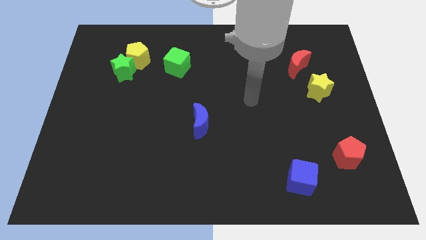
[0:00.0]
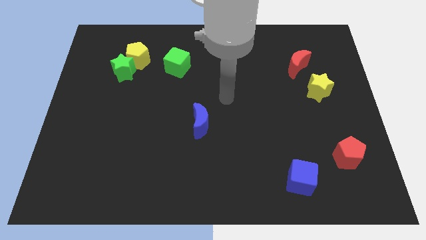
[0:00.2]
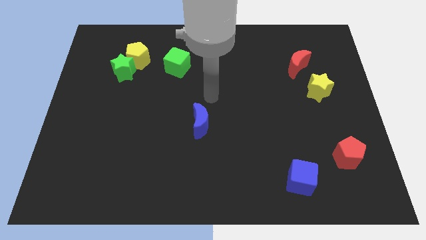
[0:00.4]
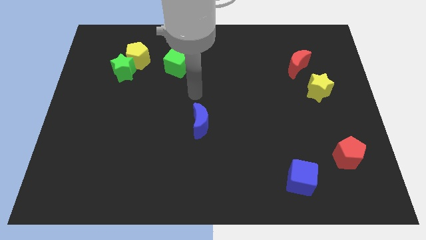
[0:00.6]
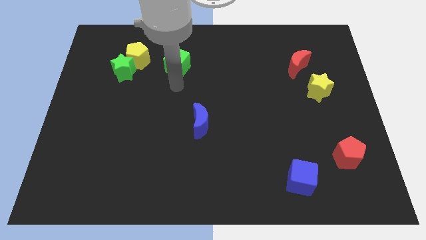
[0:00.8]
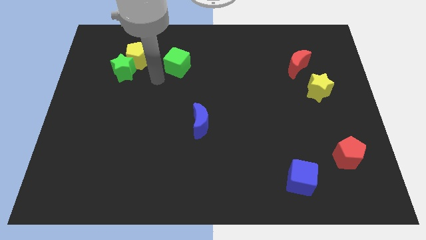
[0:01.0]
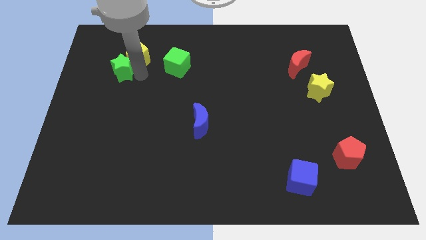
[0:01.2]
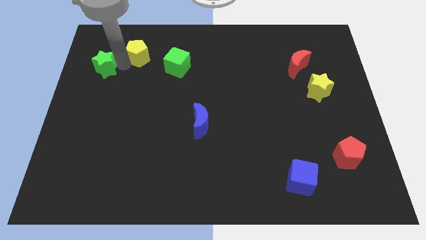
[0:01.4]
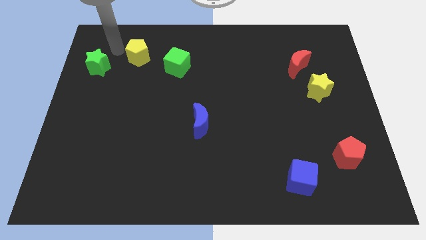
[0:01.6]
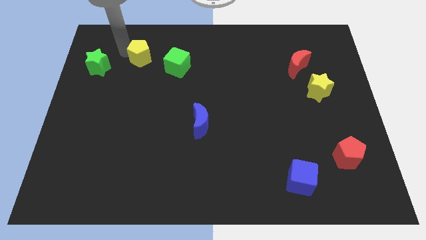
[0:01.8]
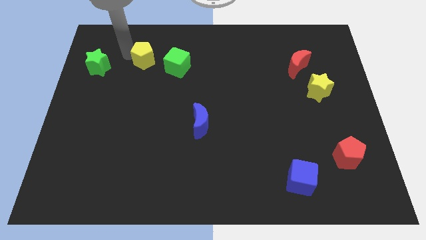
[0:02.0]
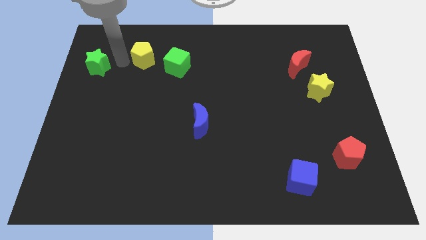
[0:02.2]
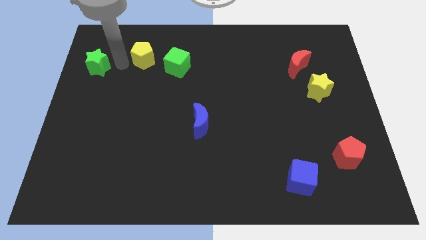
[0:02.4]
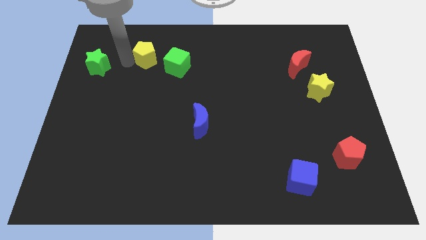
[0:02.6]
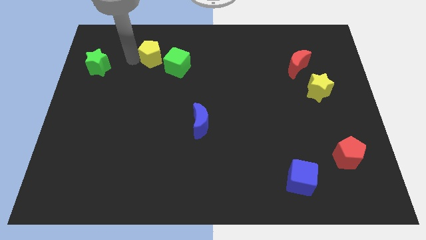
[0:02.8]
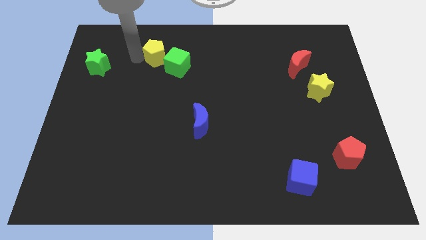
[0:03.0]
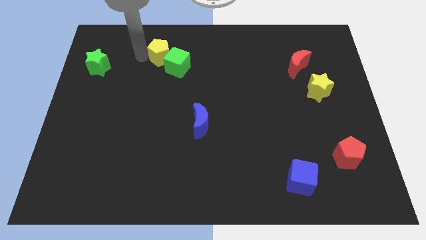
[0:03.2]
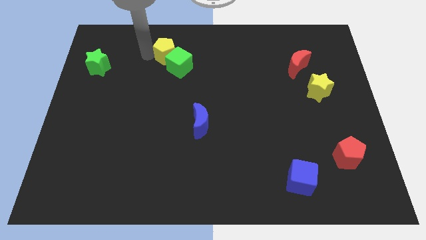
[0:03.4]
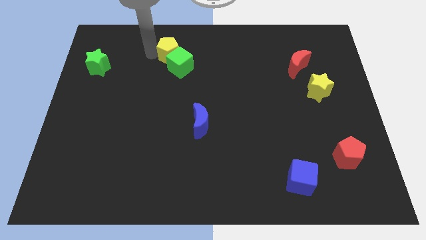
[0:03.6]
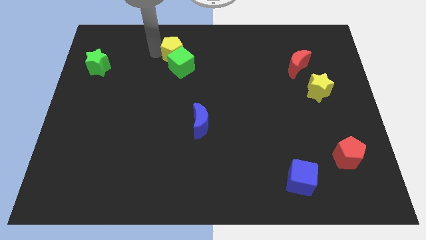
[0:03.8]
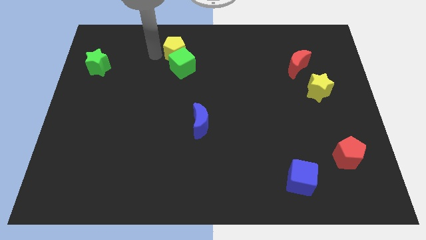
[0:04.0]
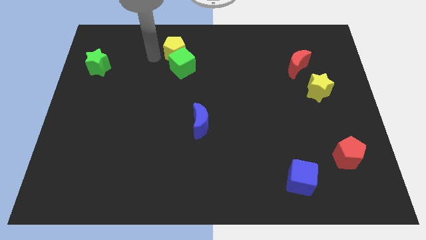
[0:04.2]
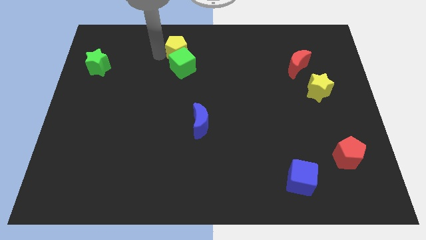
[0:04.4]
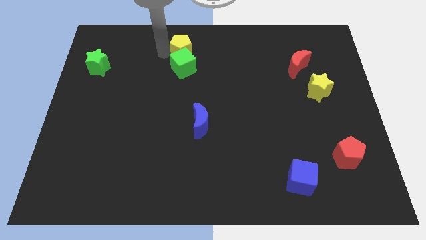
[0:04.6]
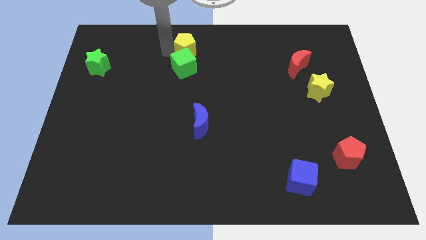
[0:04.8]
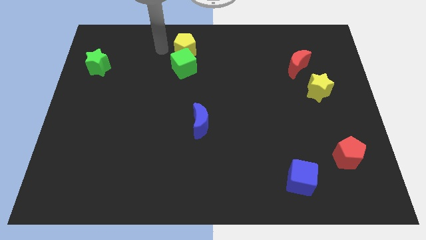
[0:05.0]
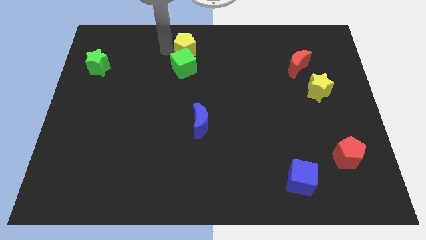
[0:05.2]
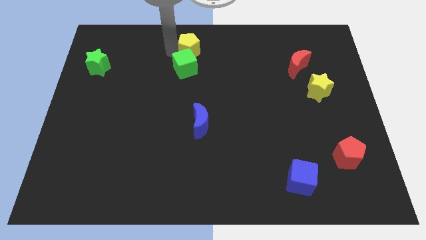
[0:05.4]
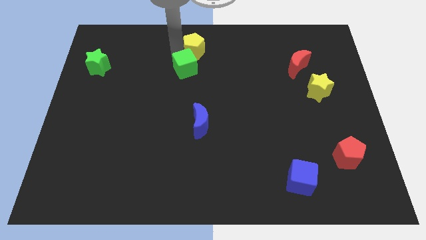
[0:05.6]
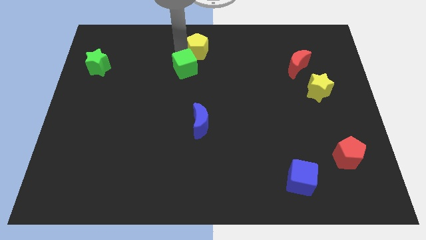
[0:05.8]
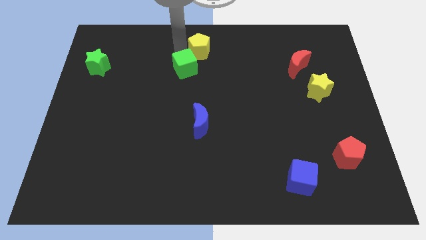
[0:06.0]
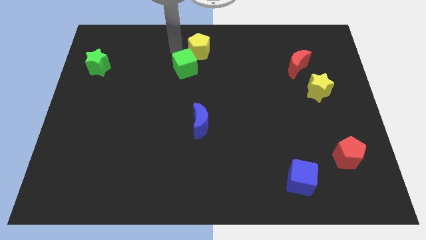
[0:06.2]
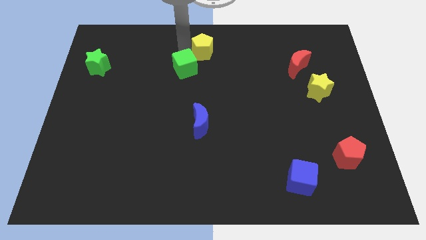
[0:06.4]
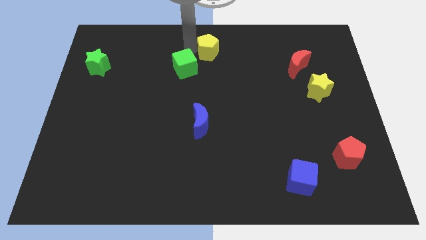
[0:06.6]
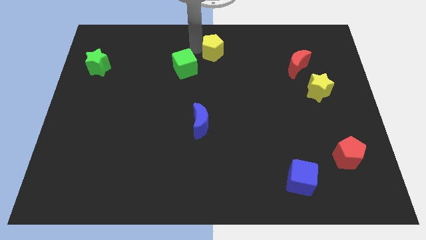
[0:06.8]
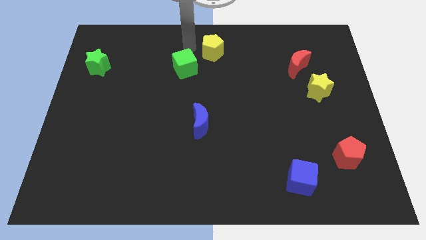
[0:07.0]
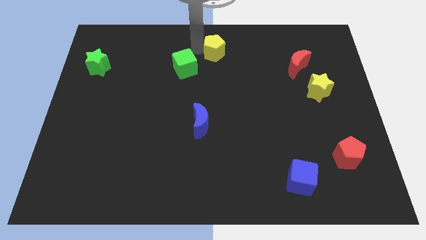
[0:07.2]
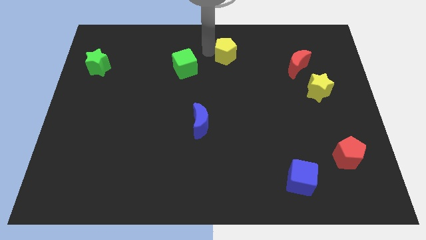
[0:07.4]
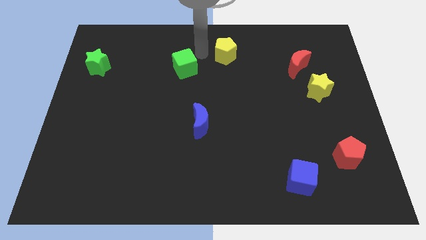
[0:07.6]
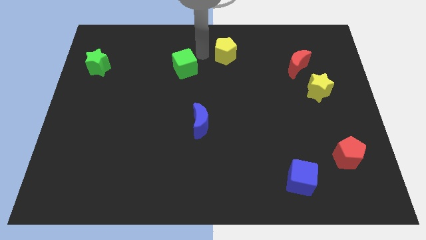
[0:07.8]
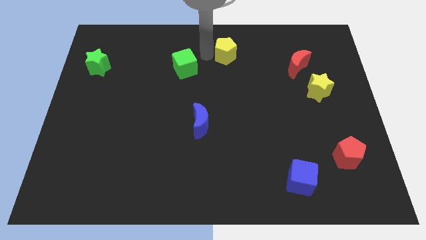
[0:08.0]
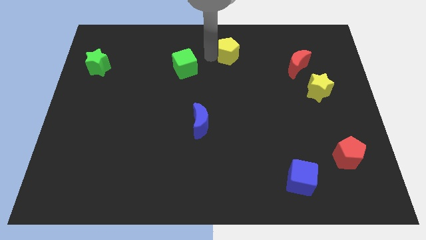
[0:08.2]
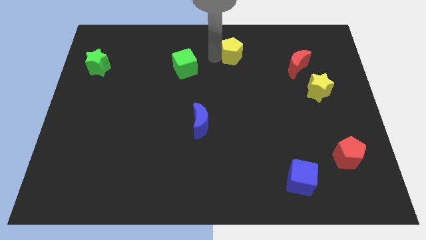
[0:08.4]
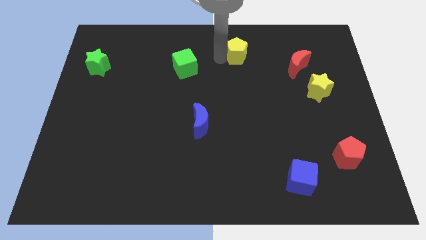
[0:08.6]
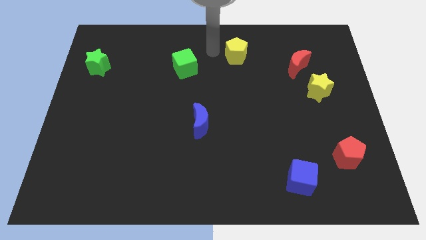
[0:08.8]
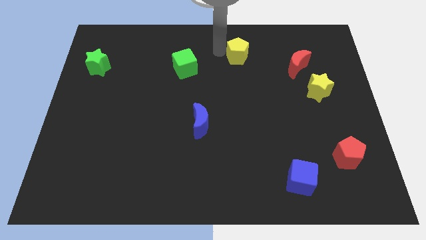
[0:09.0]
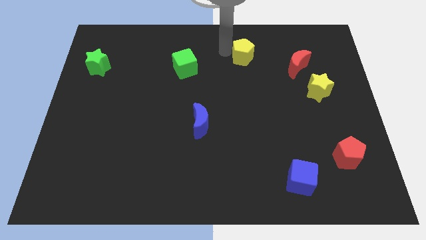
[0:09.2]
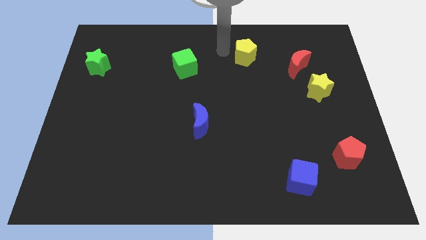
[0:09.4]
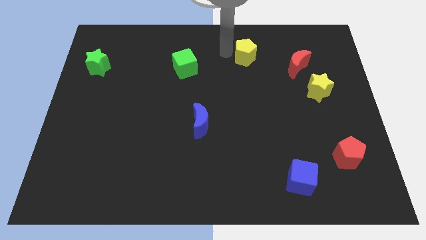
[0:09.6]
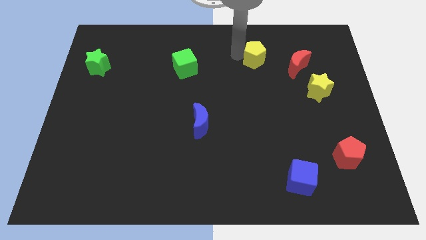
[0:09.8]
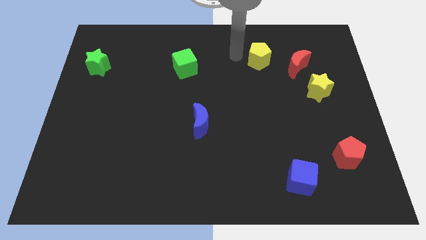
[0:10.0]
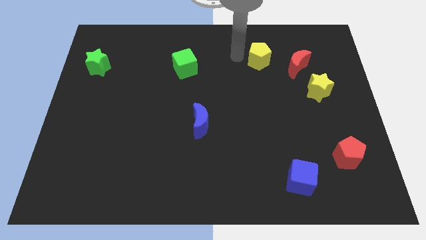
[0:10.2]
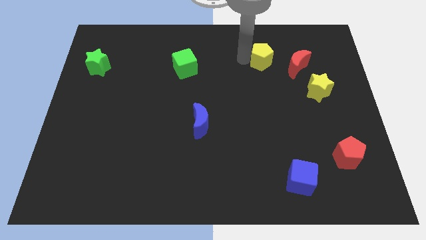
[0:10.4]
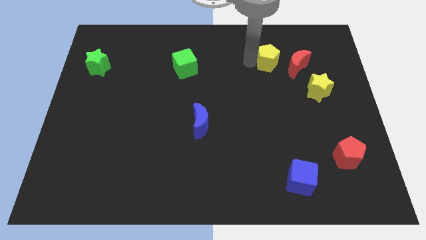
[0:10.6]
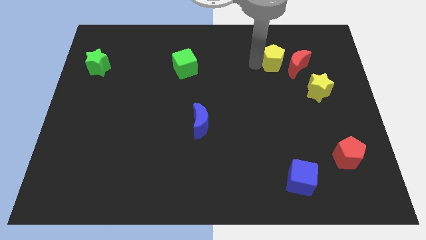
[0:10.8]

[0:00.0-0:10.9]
push the yellow pentagon close to the red moon

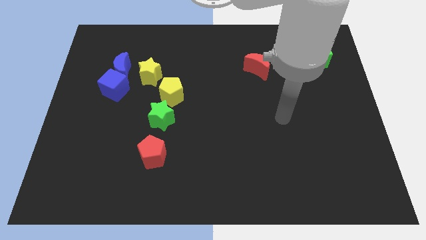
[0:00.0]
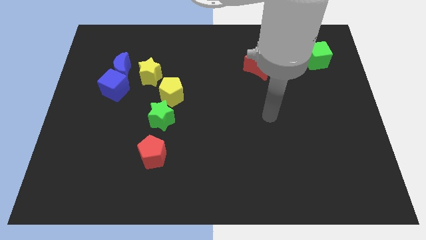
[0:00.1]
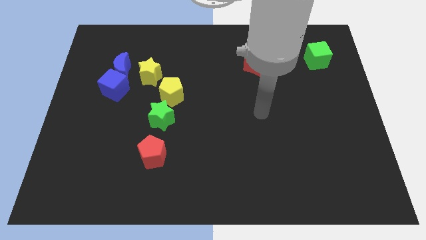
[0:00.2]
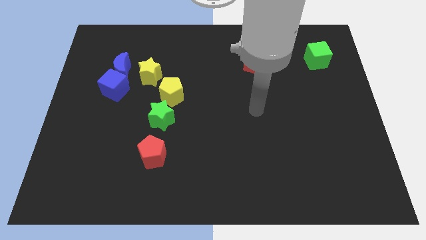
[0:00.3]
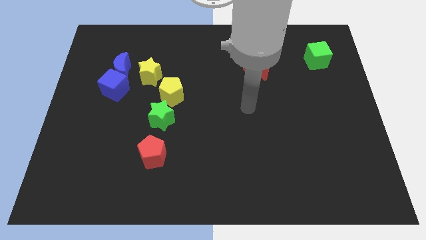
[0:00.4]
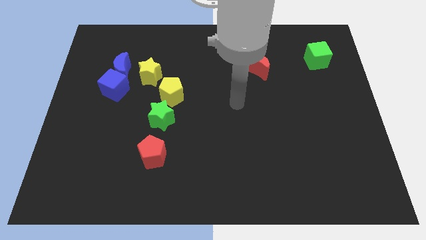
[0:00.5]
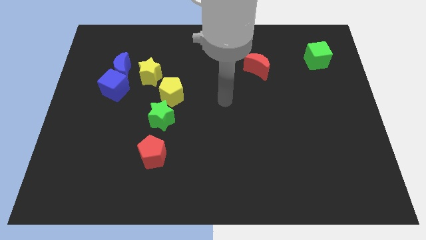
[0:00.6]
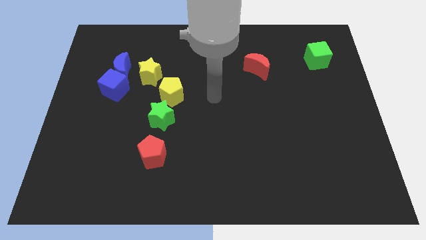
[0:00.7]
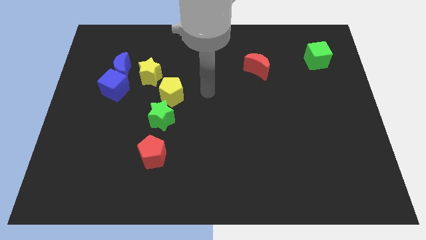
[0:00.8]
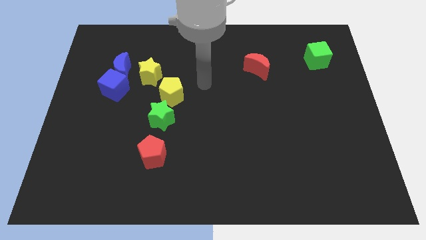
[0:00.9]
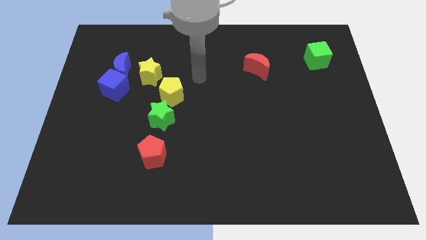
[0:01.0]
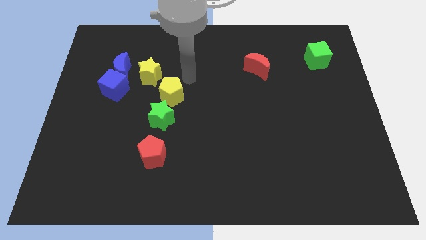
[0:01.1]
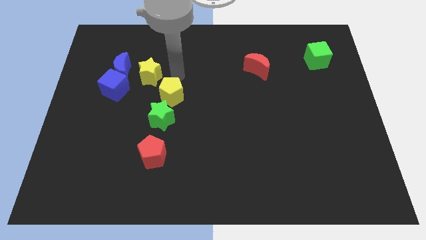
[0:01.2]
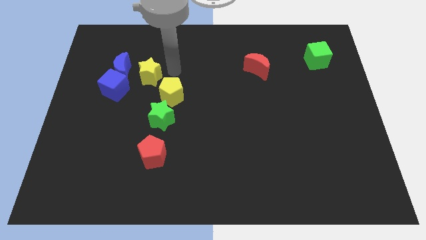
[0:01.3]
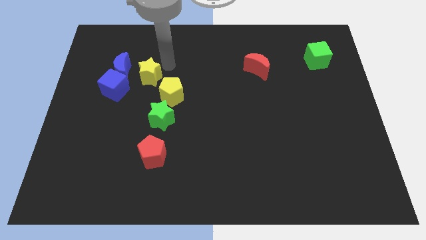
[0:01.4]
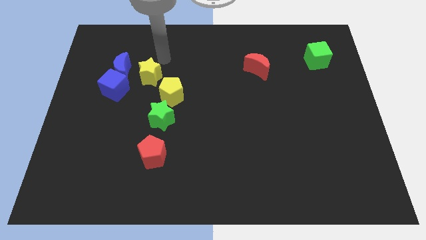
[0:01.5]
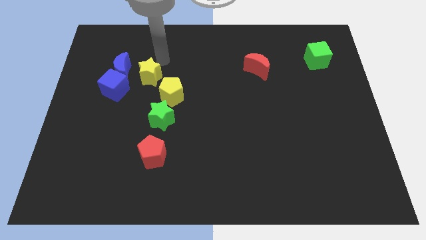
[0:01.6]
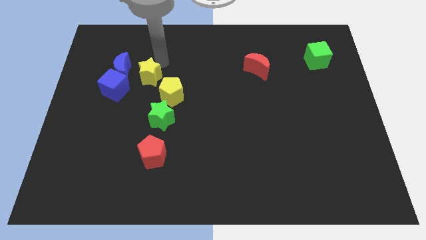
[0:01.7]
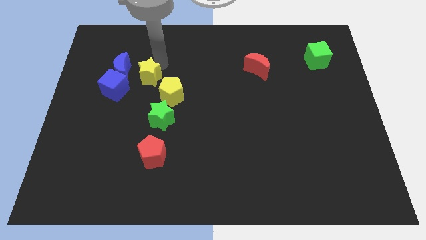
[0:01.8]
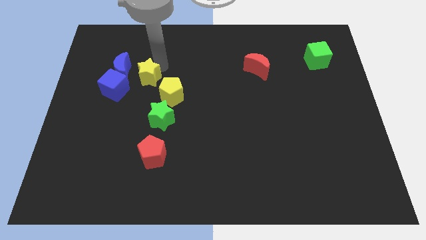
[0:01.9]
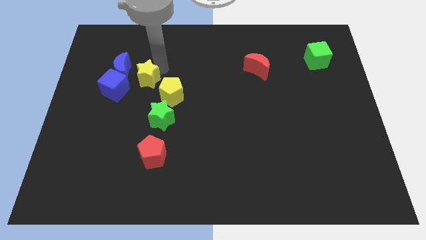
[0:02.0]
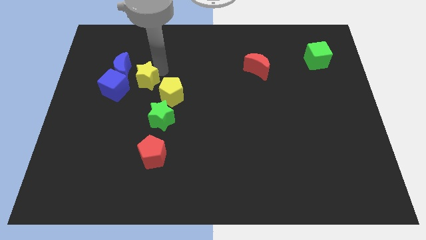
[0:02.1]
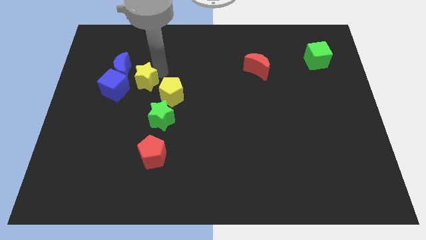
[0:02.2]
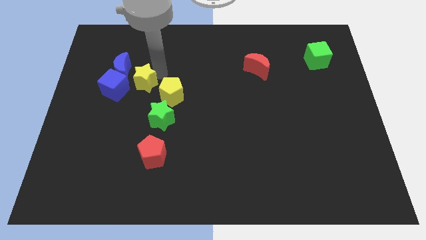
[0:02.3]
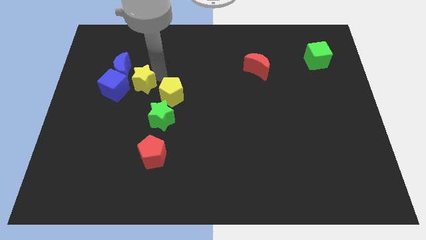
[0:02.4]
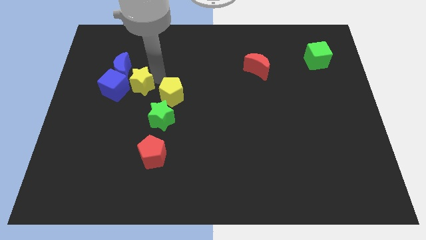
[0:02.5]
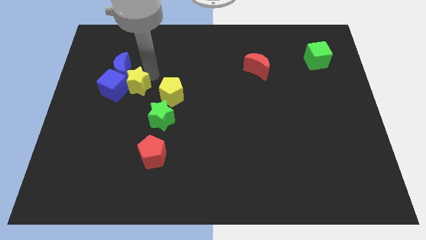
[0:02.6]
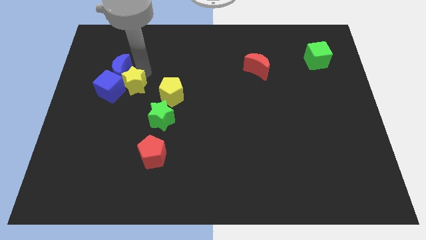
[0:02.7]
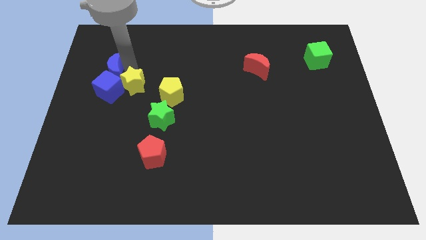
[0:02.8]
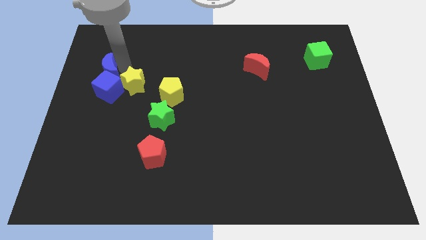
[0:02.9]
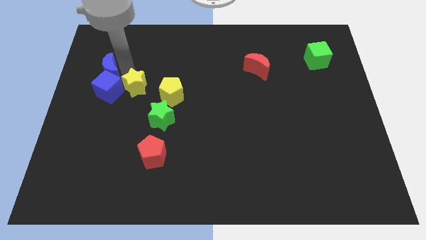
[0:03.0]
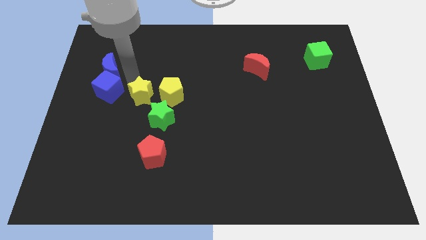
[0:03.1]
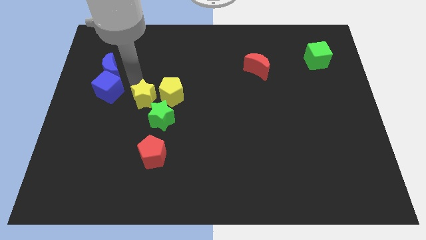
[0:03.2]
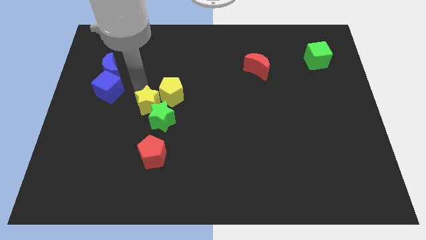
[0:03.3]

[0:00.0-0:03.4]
slide the yellow star towards the green star
